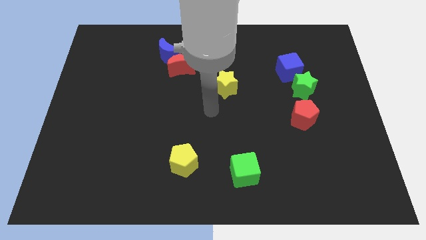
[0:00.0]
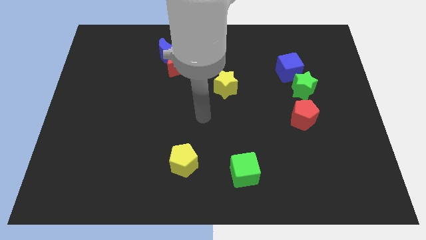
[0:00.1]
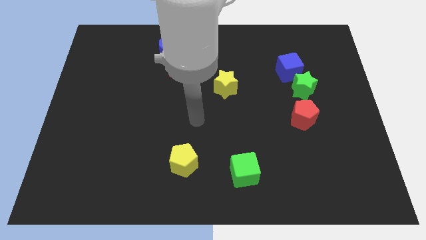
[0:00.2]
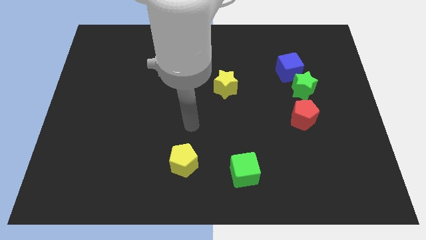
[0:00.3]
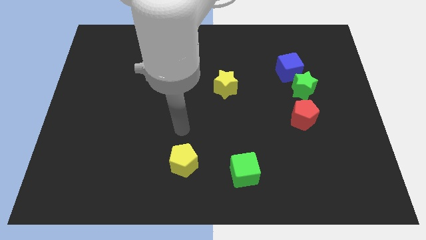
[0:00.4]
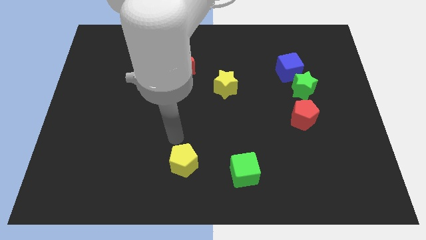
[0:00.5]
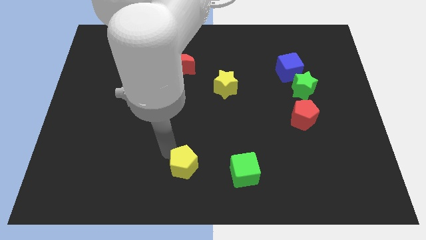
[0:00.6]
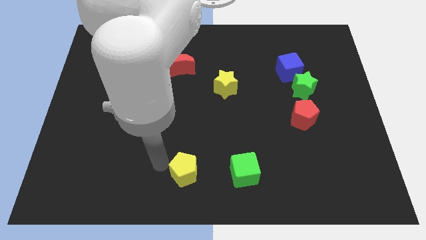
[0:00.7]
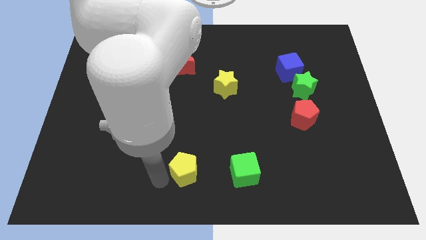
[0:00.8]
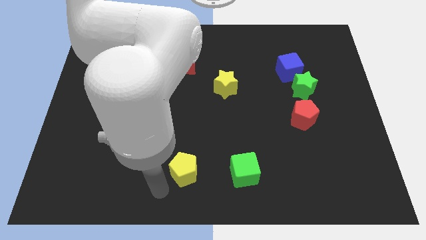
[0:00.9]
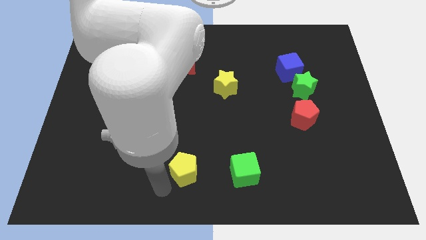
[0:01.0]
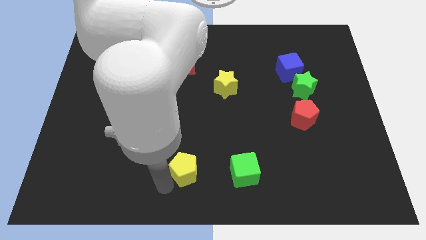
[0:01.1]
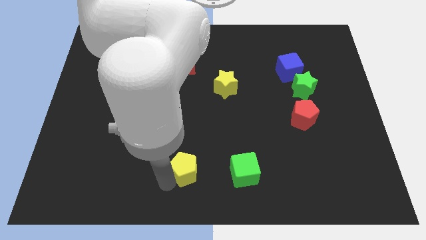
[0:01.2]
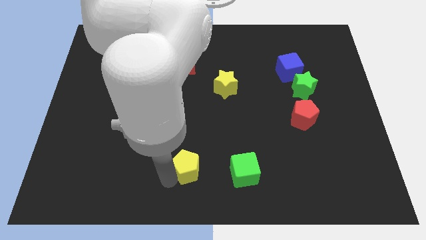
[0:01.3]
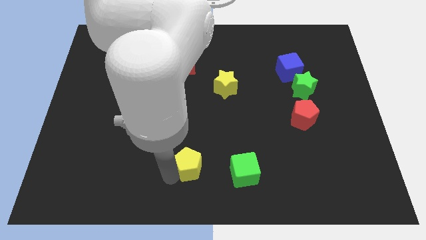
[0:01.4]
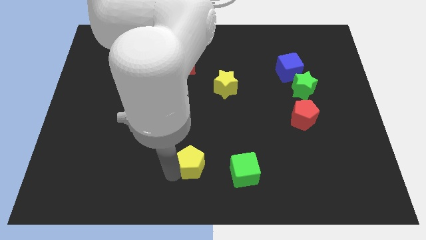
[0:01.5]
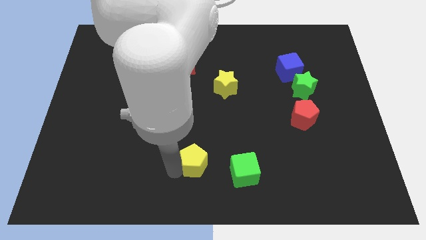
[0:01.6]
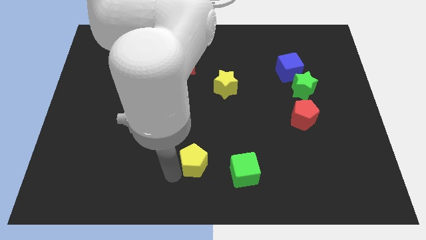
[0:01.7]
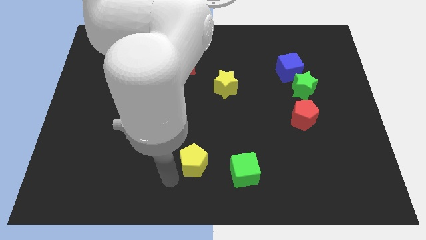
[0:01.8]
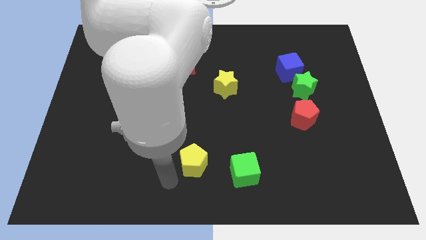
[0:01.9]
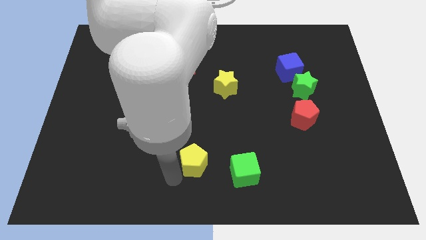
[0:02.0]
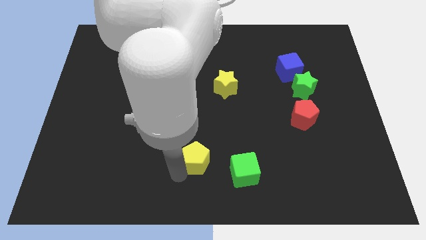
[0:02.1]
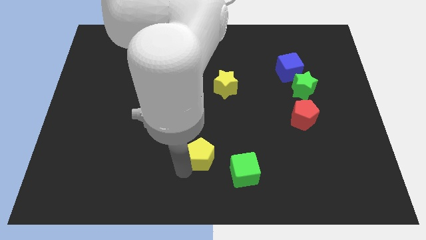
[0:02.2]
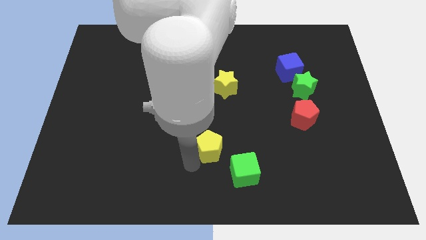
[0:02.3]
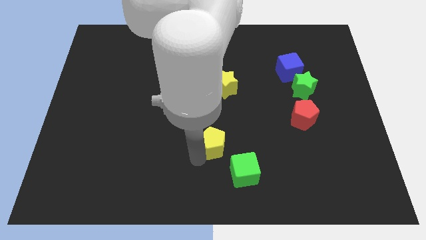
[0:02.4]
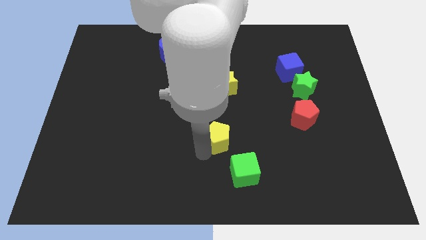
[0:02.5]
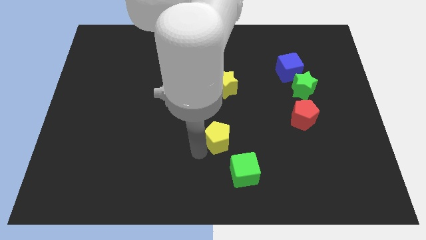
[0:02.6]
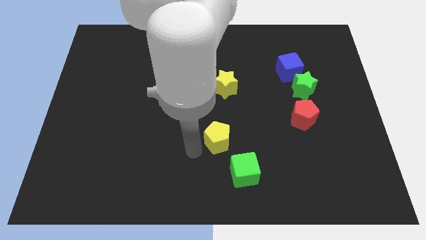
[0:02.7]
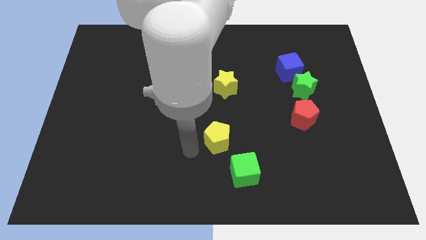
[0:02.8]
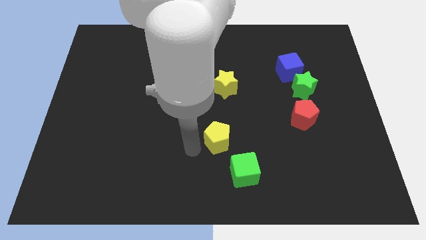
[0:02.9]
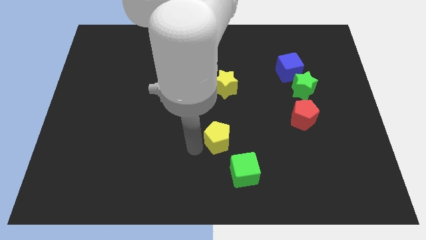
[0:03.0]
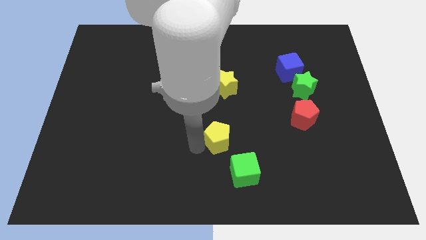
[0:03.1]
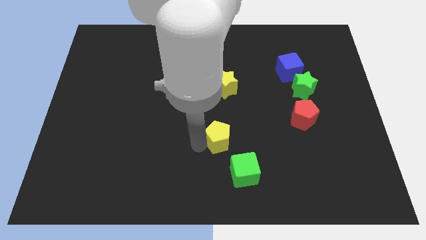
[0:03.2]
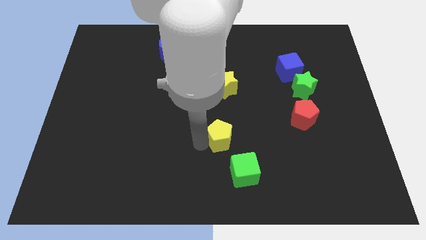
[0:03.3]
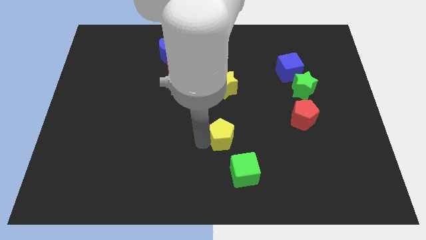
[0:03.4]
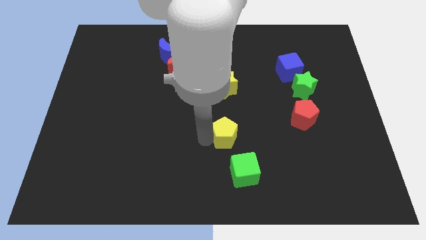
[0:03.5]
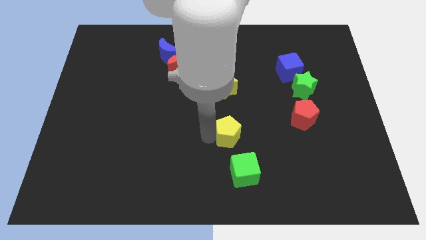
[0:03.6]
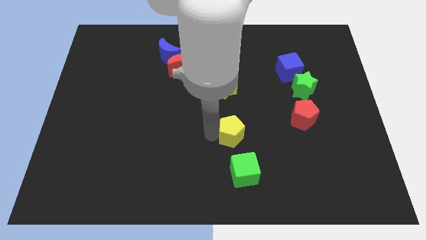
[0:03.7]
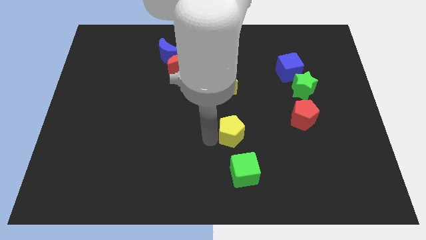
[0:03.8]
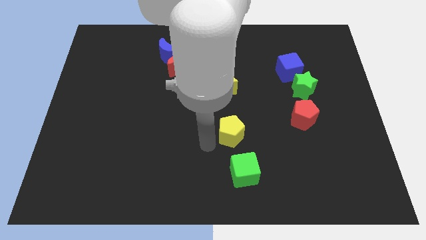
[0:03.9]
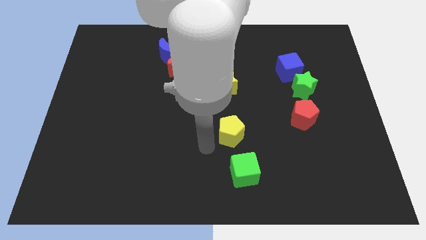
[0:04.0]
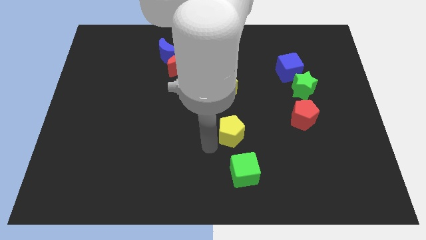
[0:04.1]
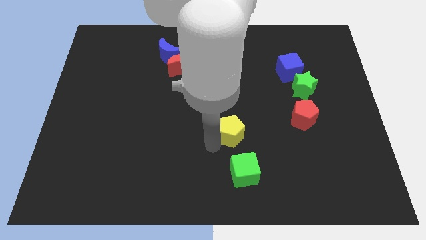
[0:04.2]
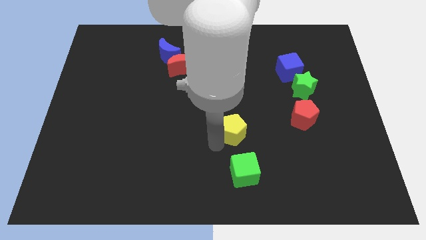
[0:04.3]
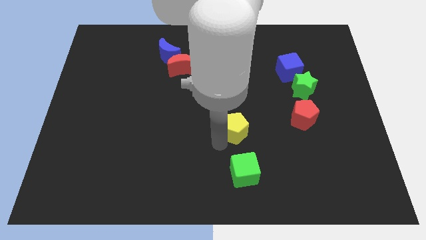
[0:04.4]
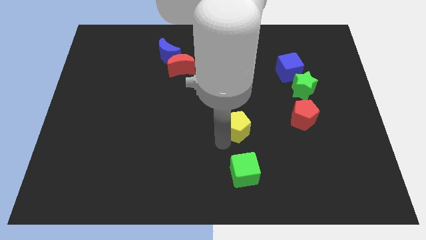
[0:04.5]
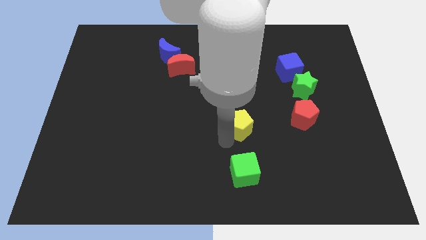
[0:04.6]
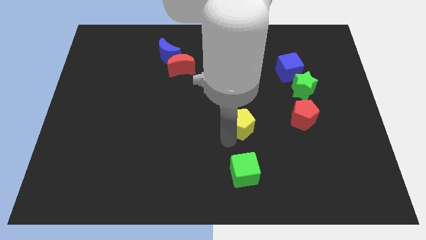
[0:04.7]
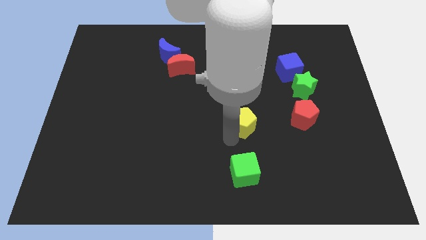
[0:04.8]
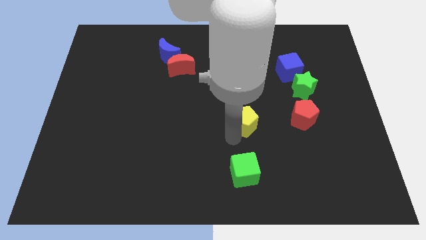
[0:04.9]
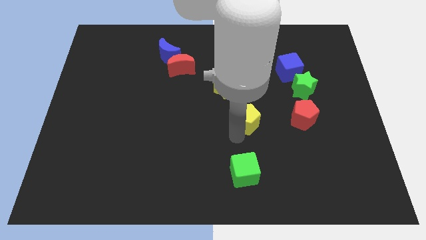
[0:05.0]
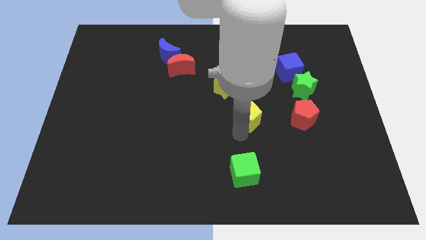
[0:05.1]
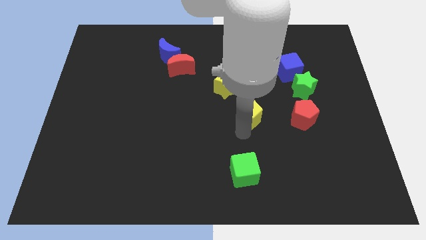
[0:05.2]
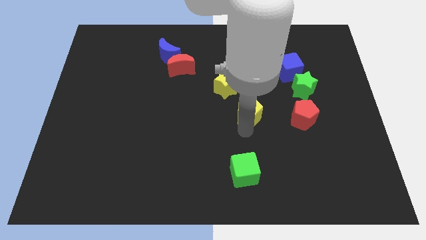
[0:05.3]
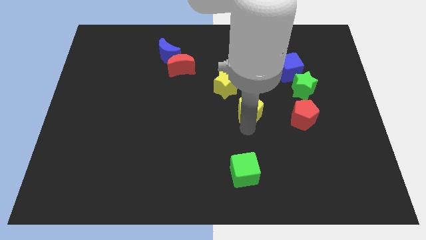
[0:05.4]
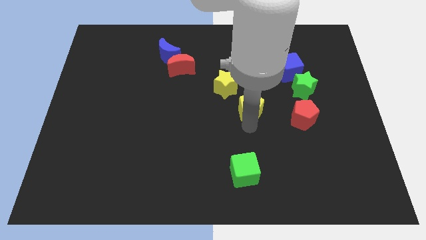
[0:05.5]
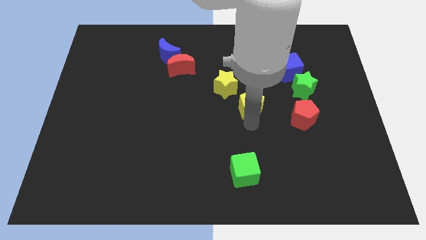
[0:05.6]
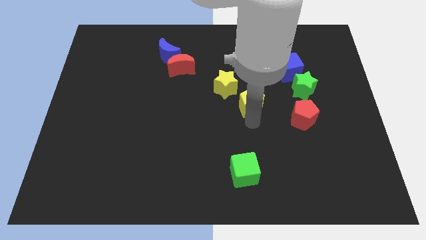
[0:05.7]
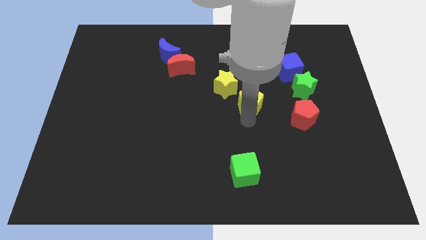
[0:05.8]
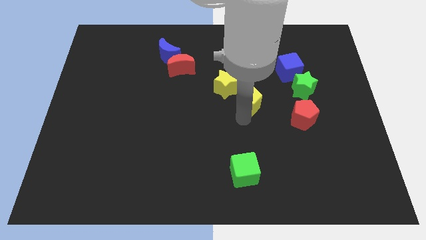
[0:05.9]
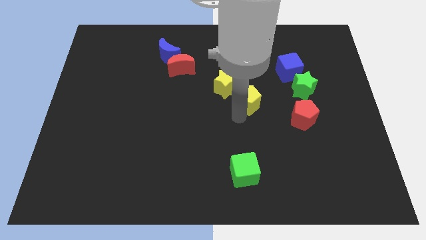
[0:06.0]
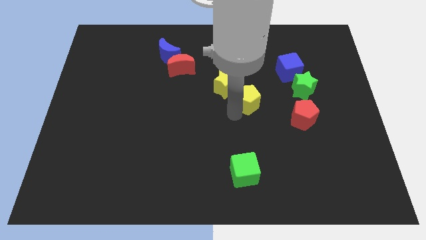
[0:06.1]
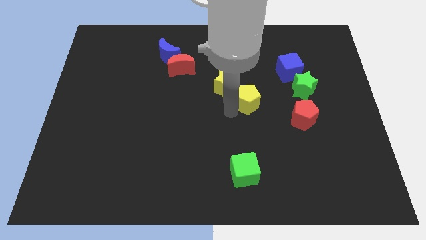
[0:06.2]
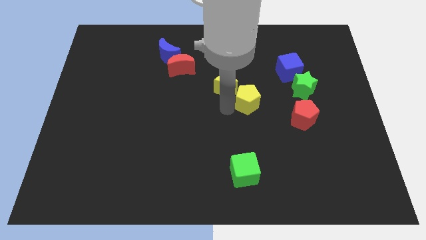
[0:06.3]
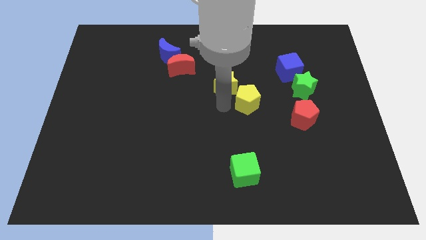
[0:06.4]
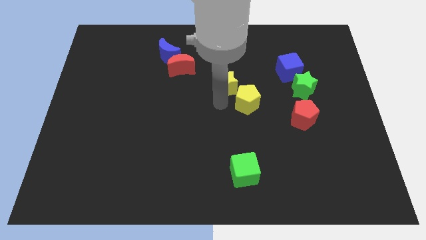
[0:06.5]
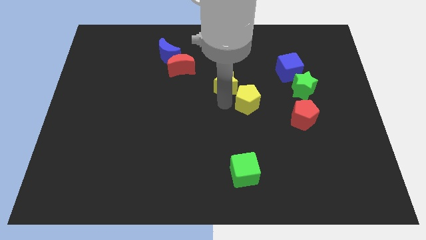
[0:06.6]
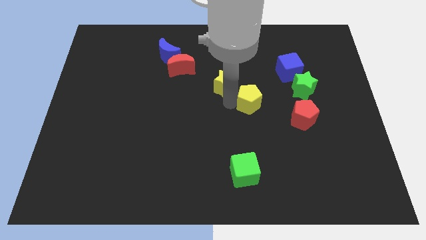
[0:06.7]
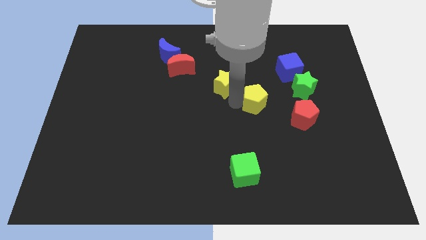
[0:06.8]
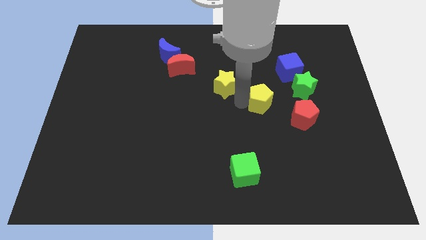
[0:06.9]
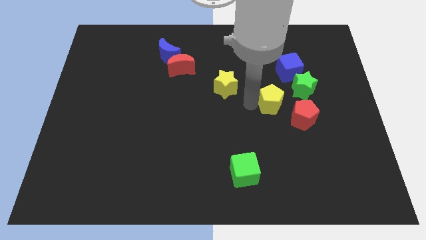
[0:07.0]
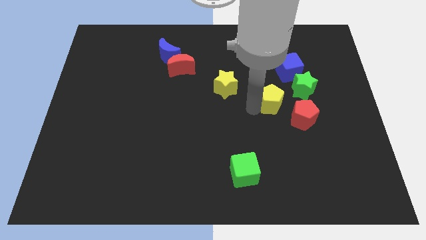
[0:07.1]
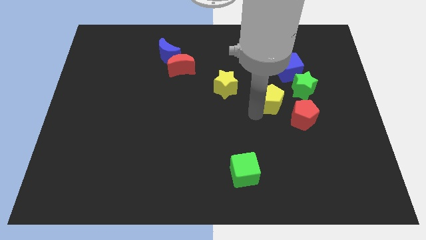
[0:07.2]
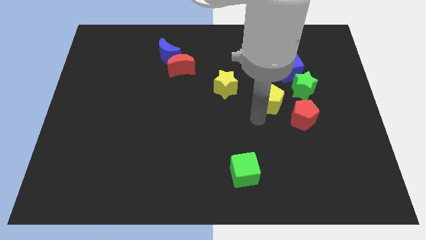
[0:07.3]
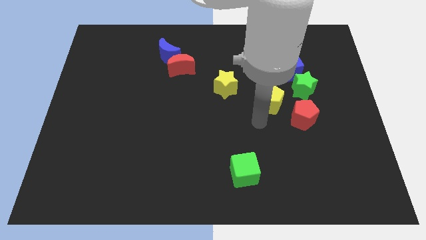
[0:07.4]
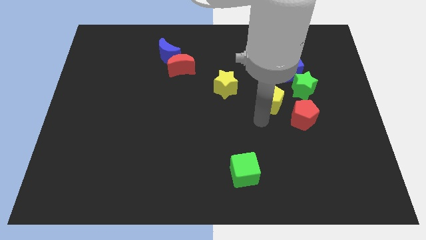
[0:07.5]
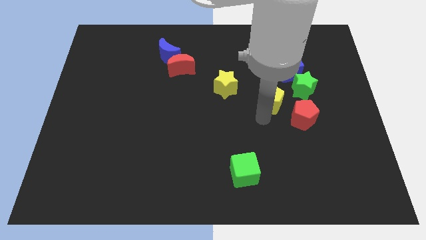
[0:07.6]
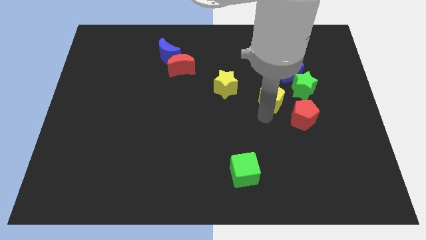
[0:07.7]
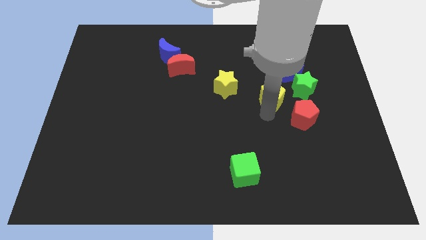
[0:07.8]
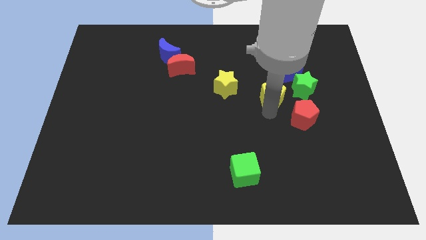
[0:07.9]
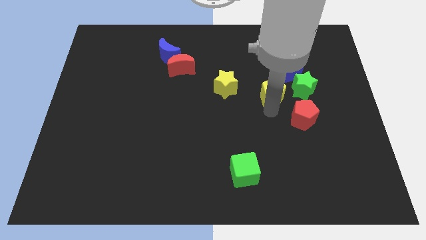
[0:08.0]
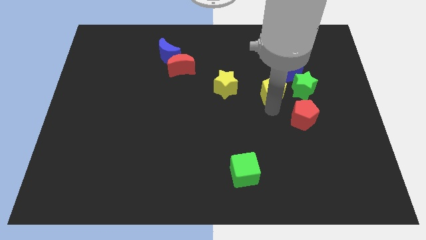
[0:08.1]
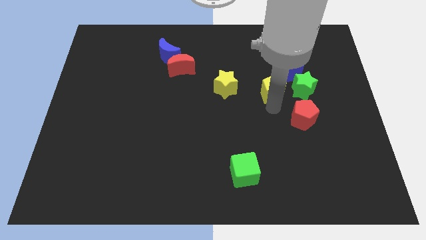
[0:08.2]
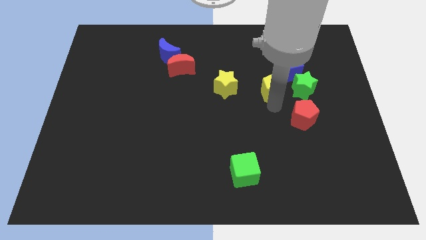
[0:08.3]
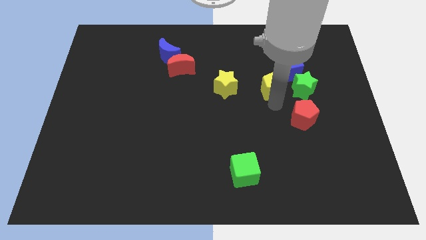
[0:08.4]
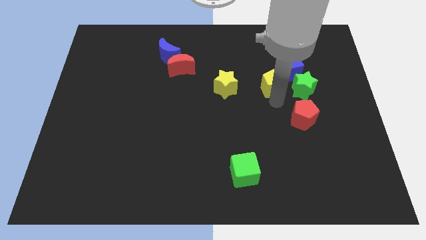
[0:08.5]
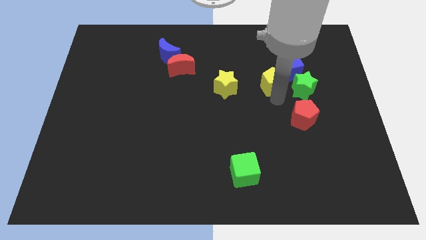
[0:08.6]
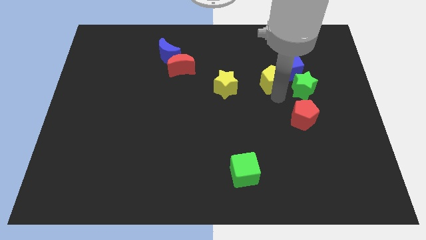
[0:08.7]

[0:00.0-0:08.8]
put the yellow pentagon towards the blue cube
